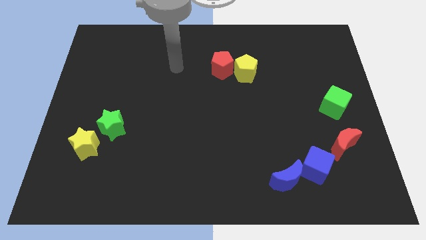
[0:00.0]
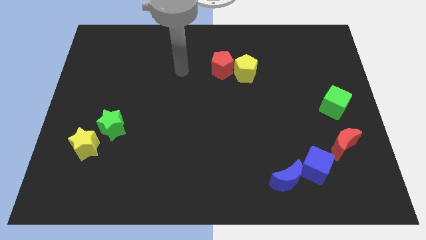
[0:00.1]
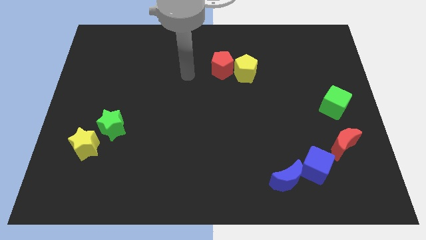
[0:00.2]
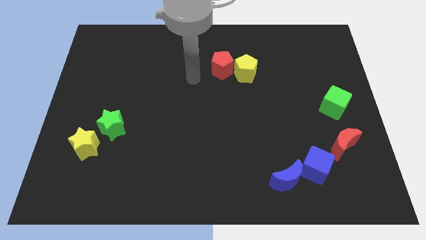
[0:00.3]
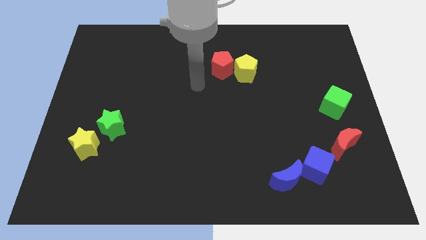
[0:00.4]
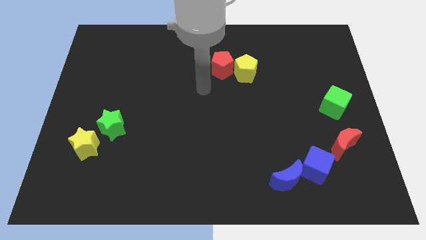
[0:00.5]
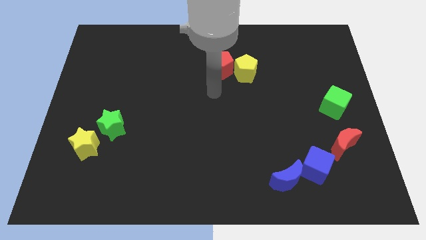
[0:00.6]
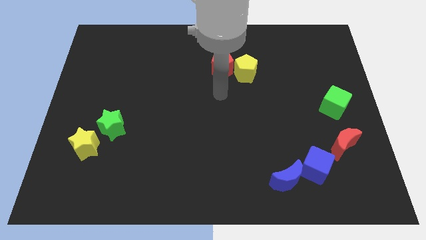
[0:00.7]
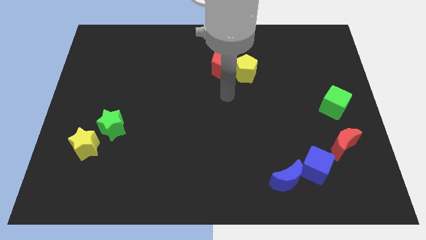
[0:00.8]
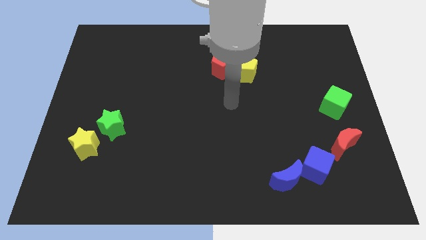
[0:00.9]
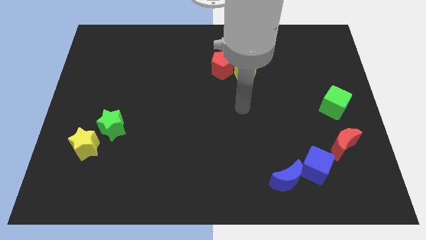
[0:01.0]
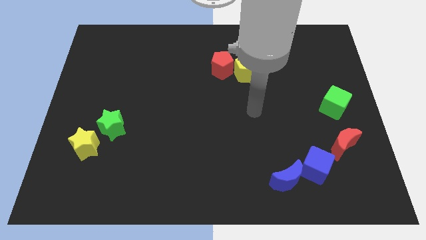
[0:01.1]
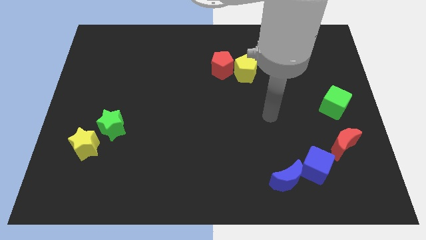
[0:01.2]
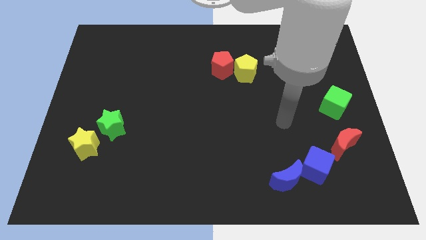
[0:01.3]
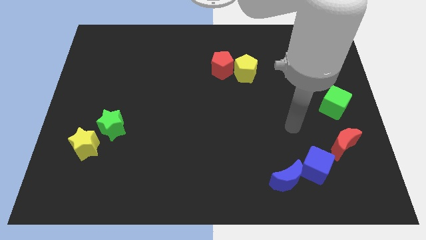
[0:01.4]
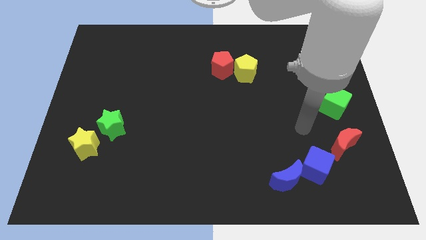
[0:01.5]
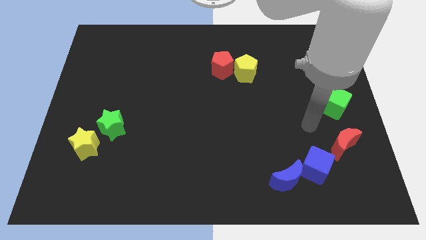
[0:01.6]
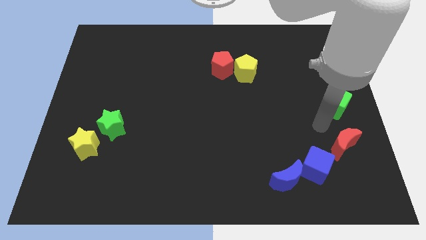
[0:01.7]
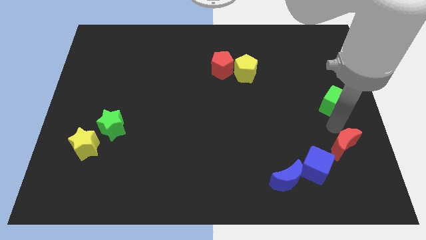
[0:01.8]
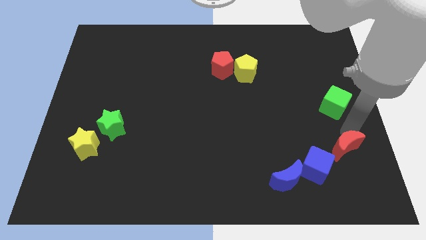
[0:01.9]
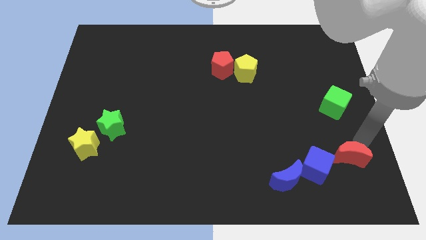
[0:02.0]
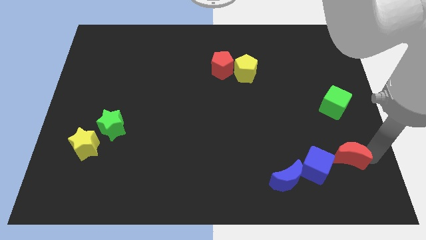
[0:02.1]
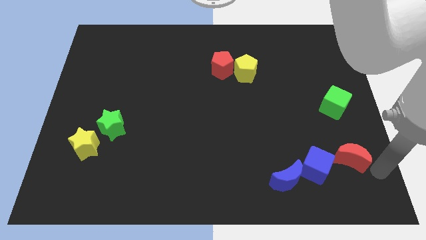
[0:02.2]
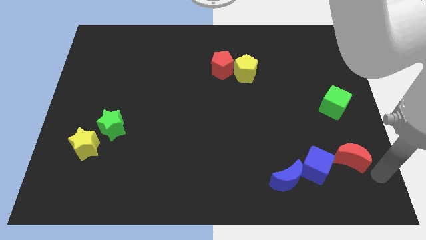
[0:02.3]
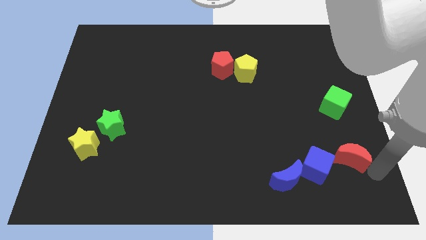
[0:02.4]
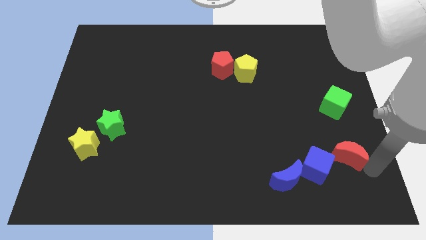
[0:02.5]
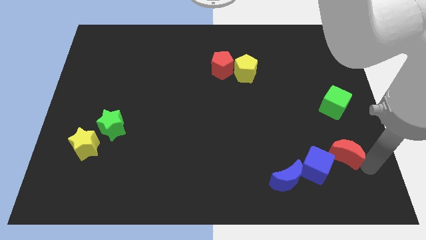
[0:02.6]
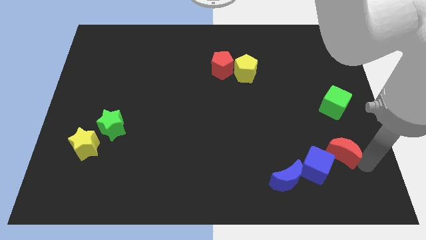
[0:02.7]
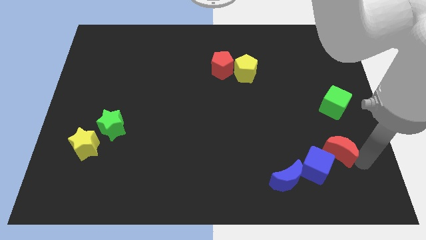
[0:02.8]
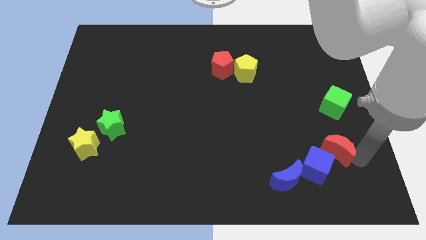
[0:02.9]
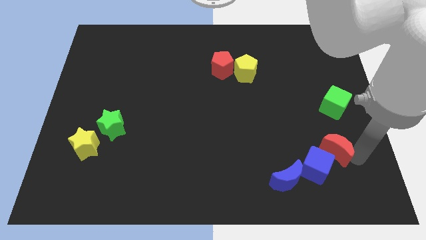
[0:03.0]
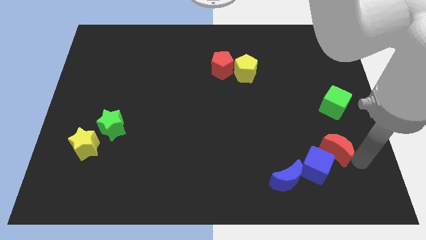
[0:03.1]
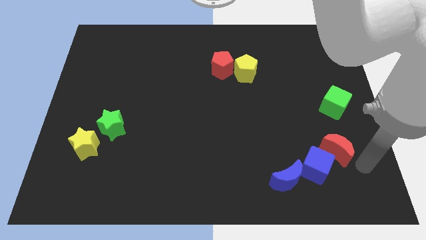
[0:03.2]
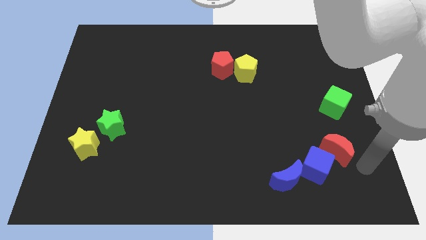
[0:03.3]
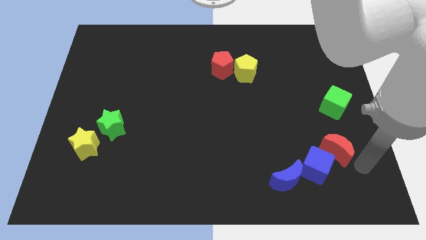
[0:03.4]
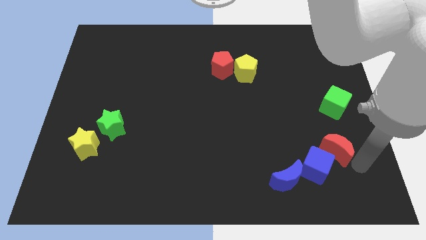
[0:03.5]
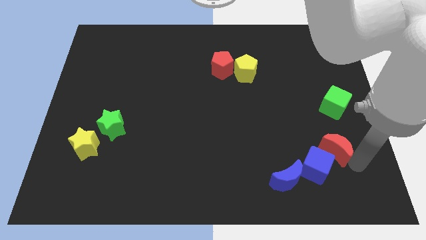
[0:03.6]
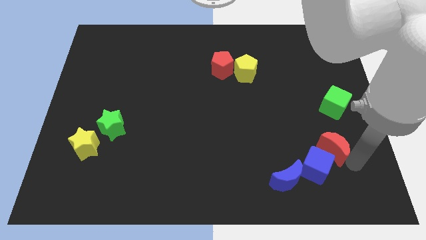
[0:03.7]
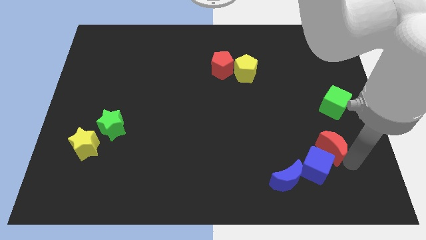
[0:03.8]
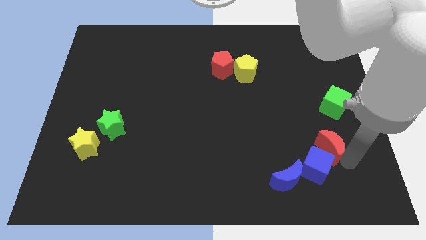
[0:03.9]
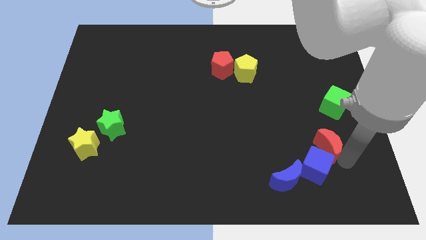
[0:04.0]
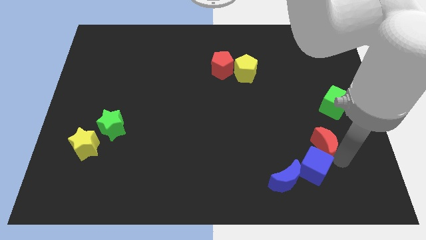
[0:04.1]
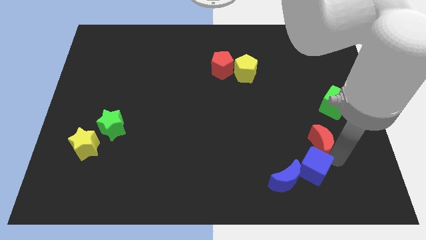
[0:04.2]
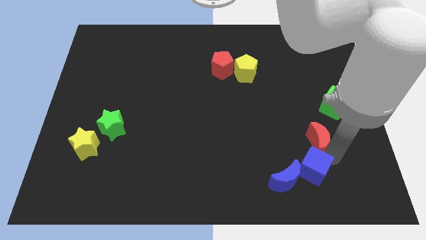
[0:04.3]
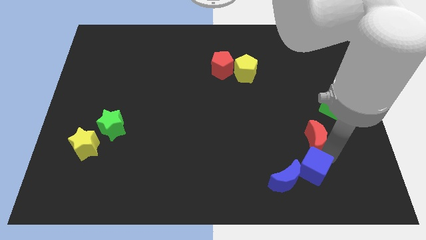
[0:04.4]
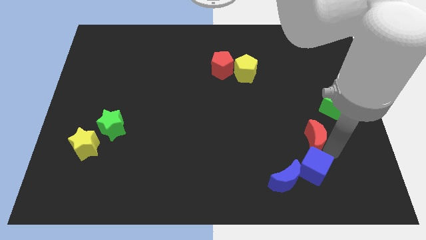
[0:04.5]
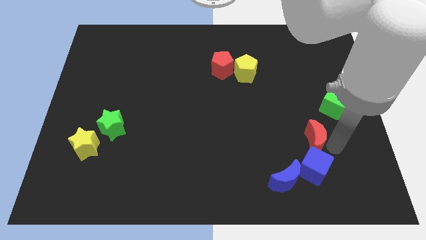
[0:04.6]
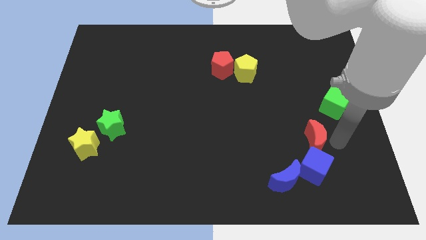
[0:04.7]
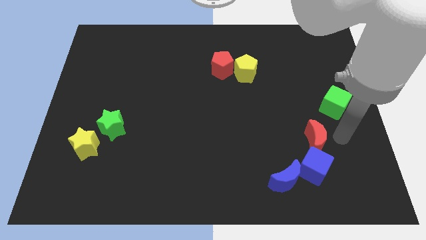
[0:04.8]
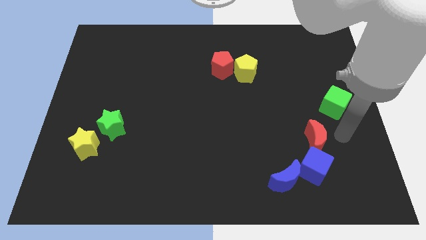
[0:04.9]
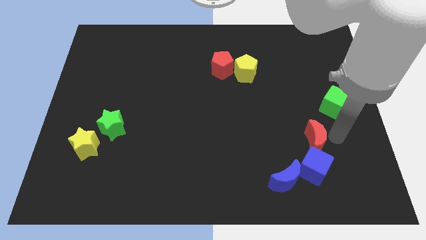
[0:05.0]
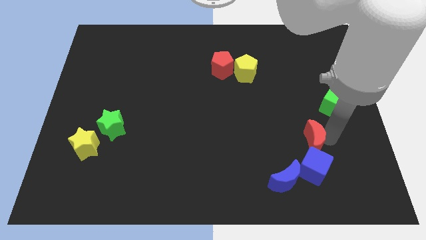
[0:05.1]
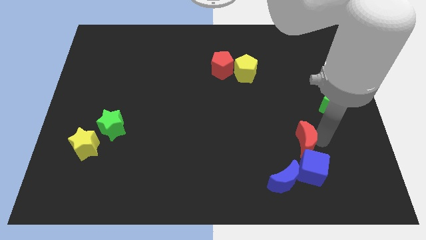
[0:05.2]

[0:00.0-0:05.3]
push the red moon to the top left side of the blue cube

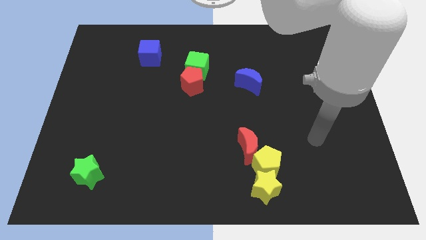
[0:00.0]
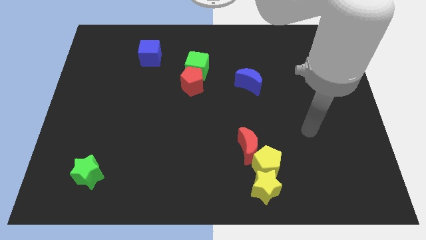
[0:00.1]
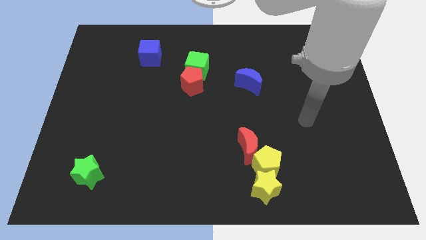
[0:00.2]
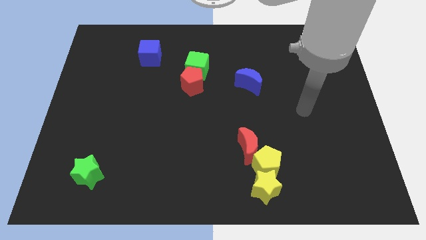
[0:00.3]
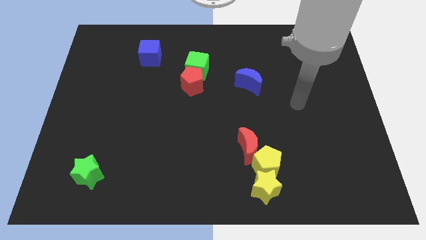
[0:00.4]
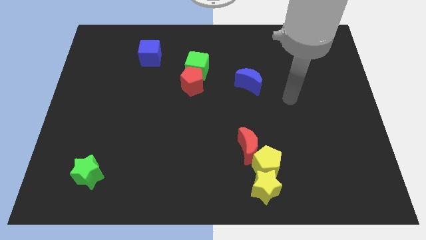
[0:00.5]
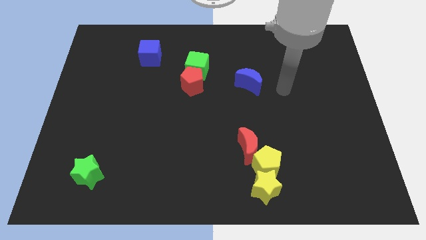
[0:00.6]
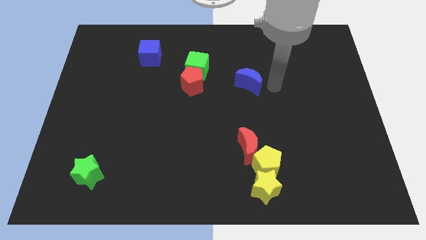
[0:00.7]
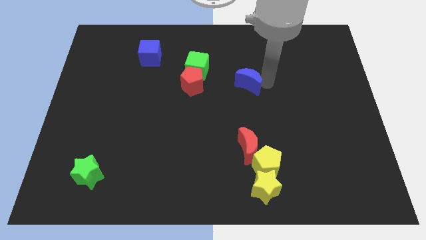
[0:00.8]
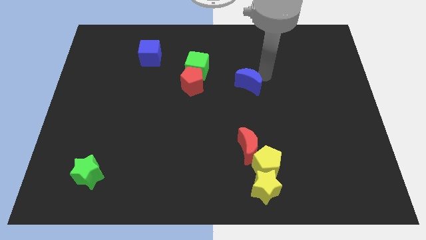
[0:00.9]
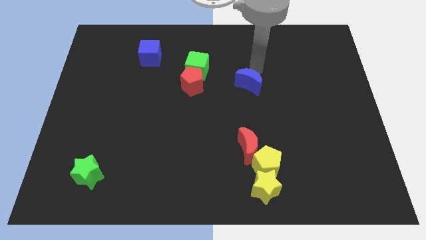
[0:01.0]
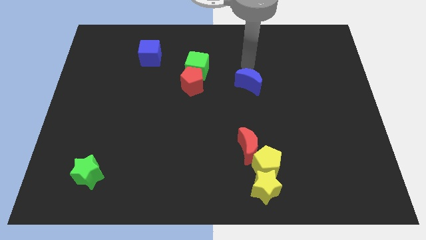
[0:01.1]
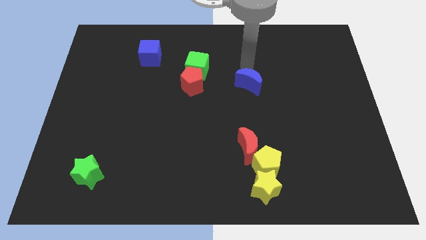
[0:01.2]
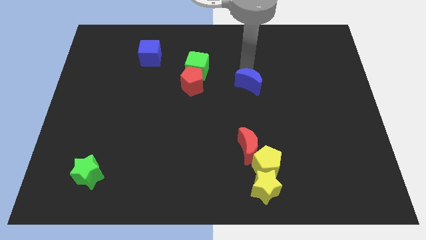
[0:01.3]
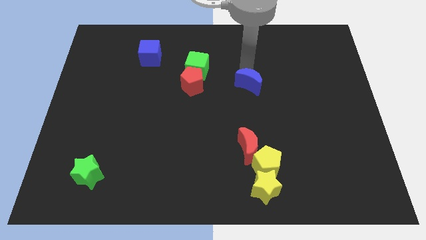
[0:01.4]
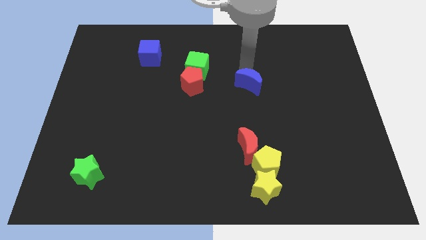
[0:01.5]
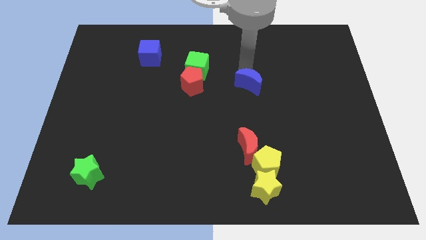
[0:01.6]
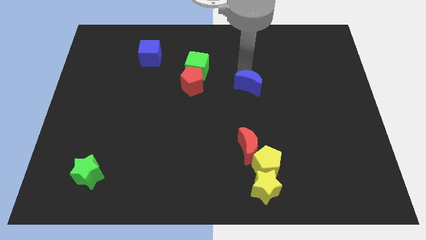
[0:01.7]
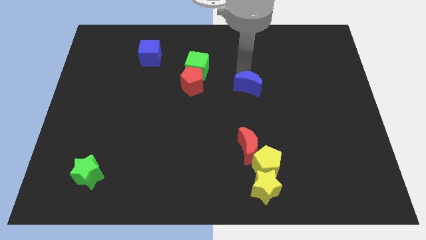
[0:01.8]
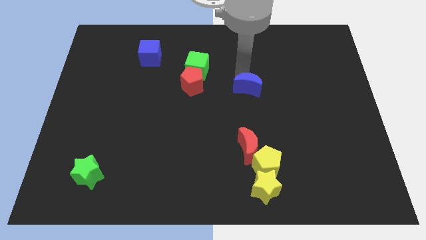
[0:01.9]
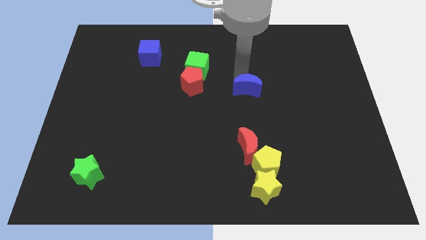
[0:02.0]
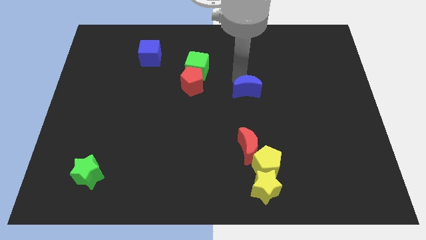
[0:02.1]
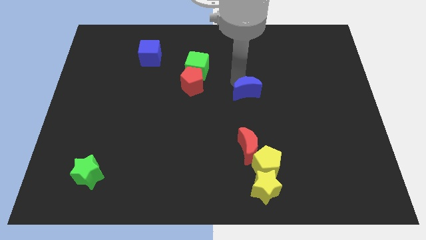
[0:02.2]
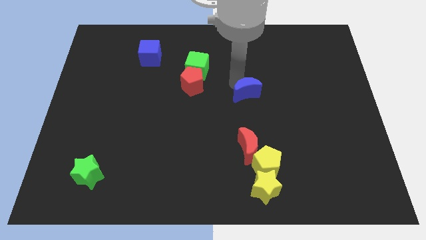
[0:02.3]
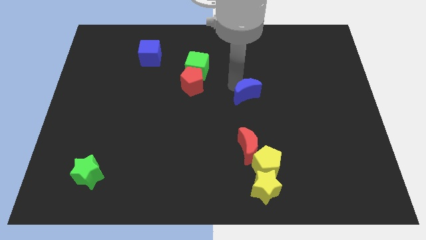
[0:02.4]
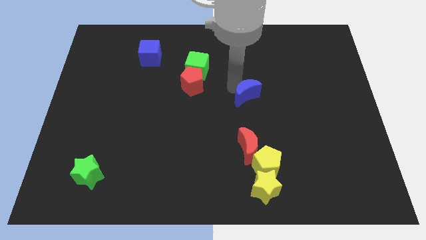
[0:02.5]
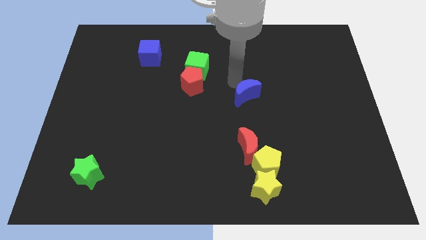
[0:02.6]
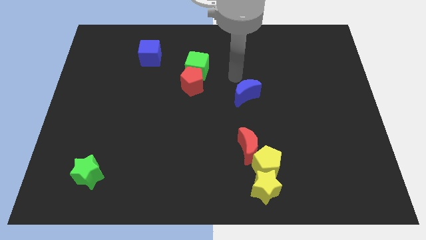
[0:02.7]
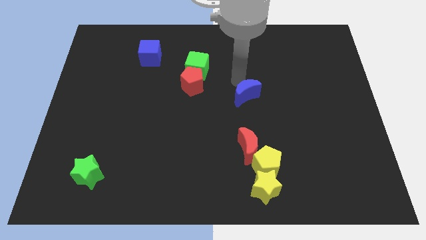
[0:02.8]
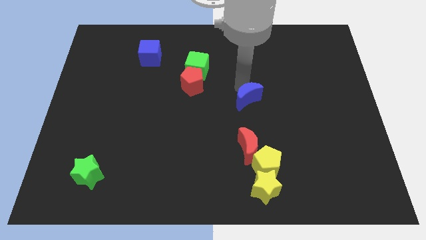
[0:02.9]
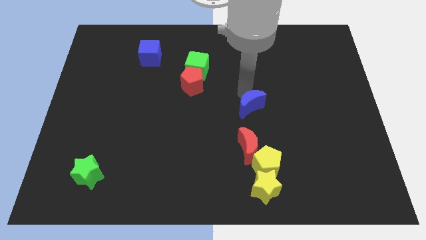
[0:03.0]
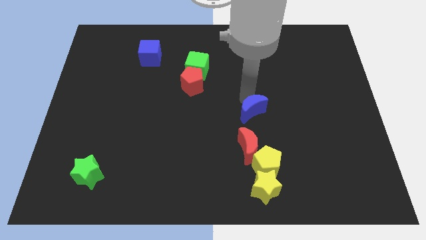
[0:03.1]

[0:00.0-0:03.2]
move the blue moon above the yellow pentagon
